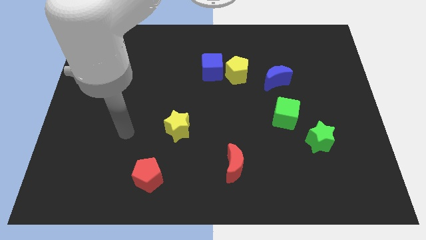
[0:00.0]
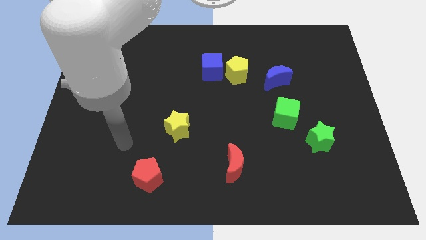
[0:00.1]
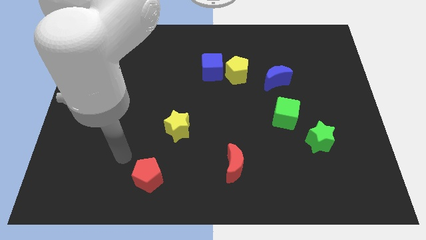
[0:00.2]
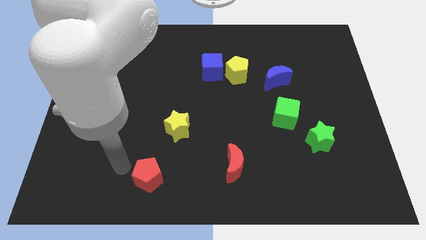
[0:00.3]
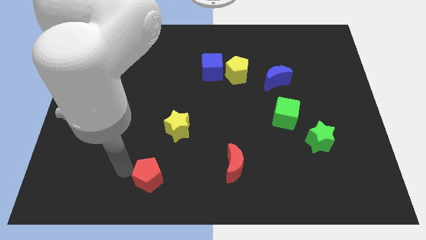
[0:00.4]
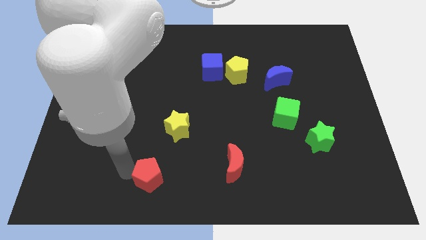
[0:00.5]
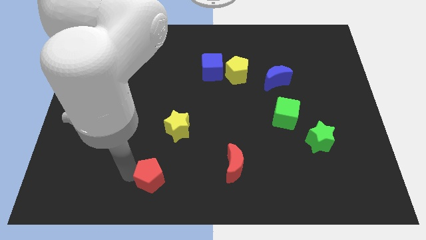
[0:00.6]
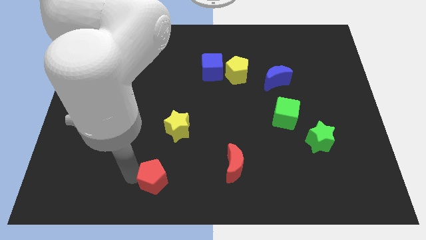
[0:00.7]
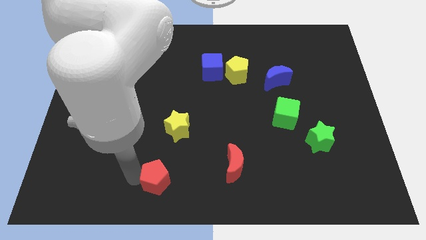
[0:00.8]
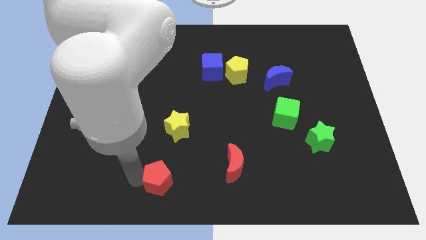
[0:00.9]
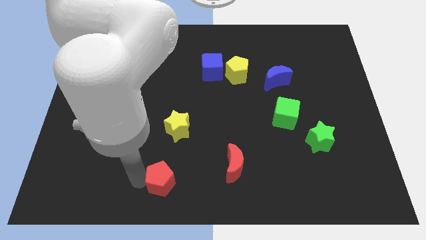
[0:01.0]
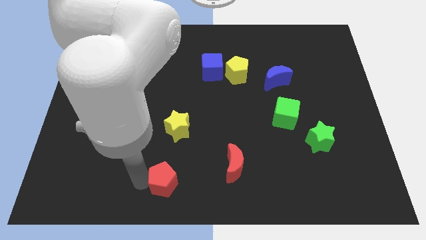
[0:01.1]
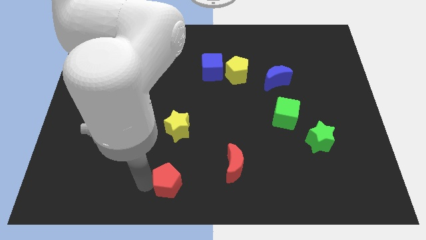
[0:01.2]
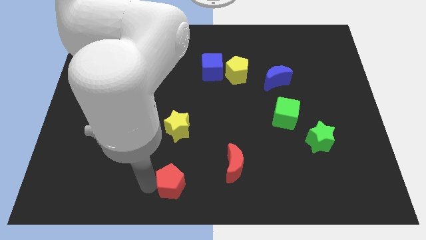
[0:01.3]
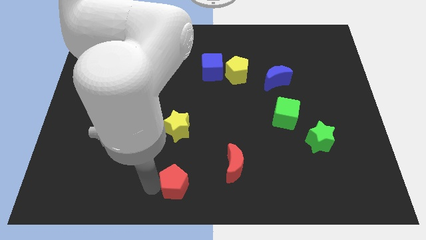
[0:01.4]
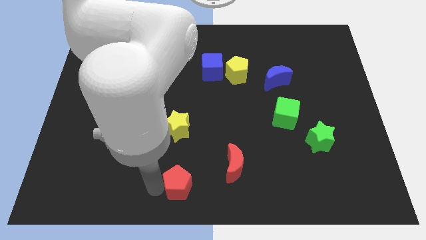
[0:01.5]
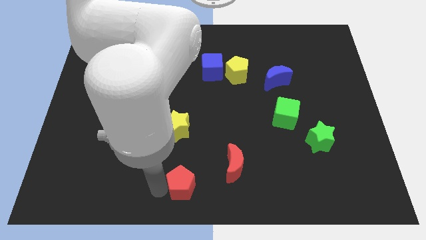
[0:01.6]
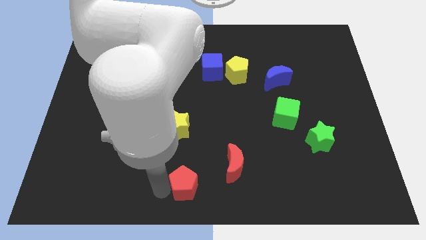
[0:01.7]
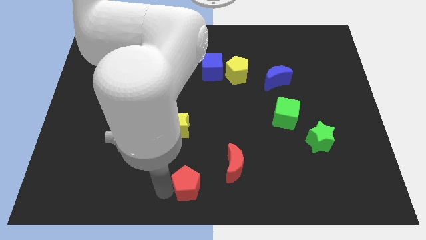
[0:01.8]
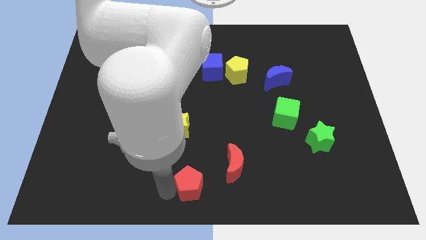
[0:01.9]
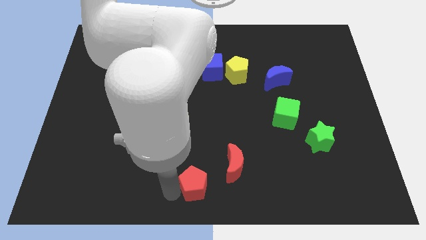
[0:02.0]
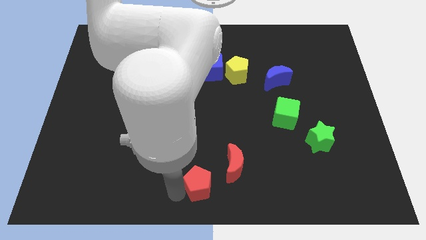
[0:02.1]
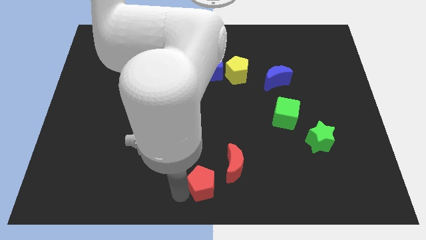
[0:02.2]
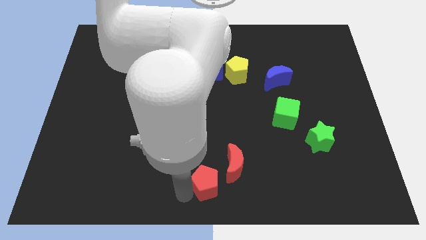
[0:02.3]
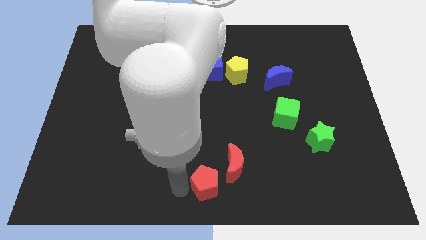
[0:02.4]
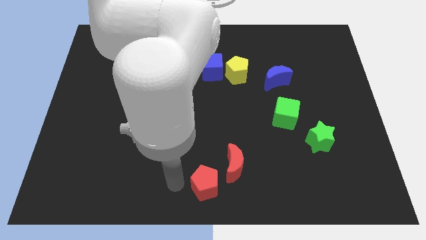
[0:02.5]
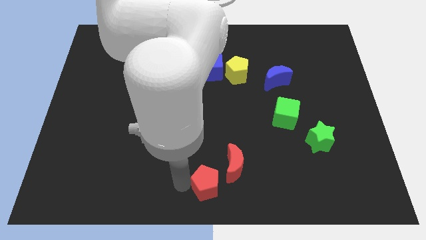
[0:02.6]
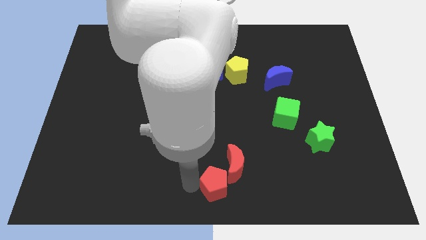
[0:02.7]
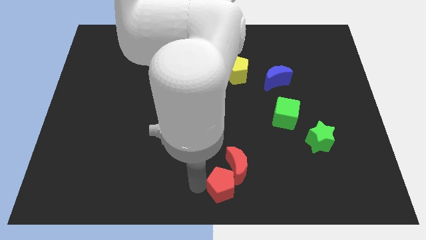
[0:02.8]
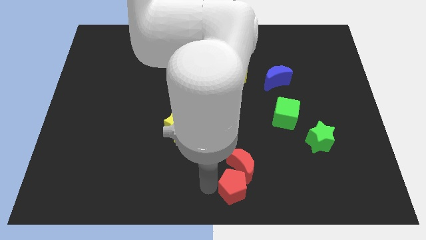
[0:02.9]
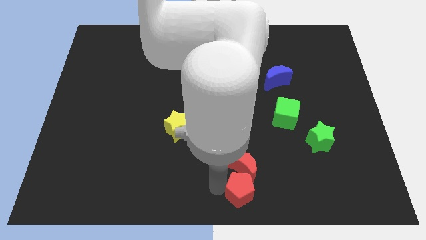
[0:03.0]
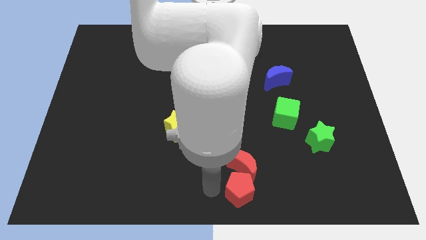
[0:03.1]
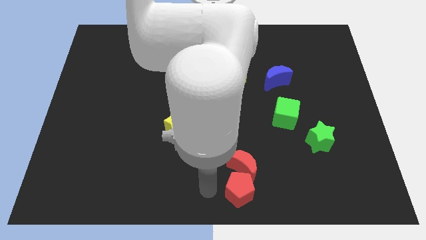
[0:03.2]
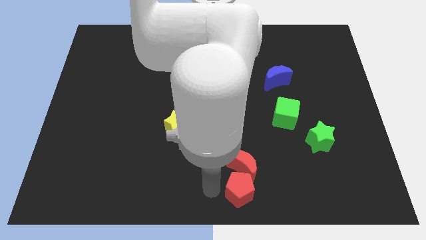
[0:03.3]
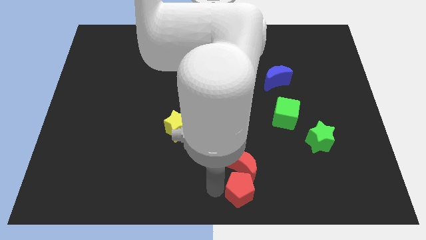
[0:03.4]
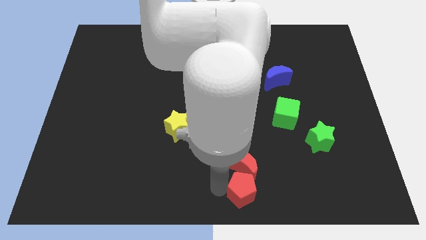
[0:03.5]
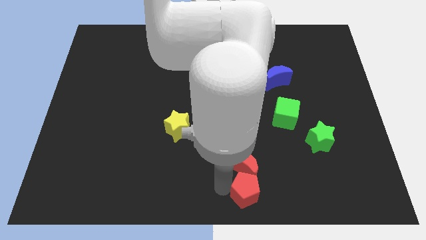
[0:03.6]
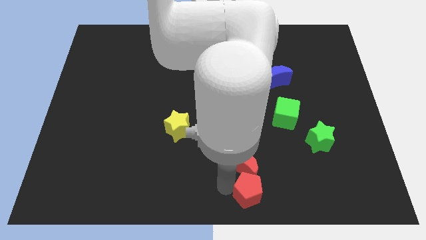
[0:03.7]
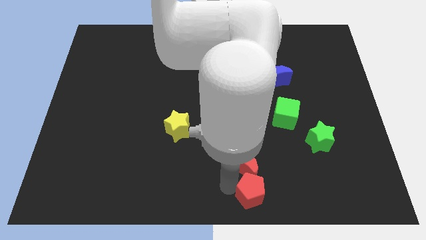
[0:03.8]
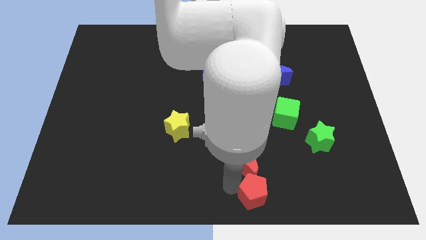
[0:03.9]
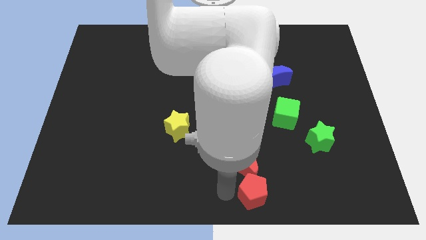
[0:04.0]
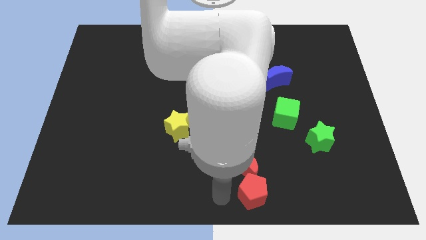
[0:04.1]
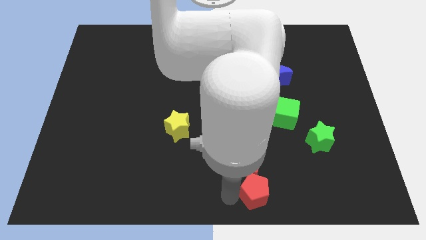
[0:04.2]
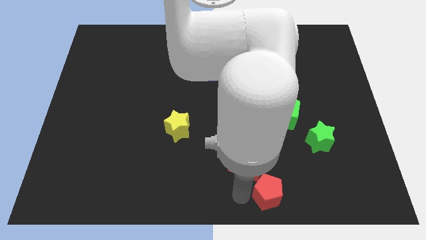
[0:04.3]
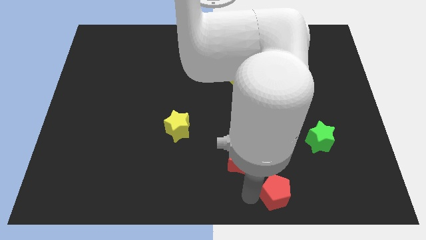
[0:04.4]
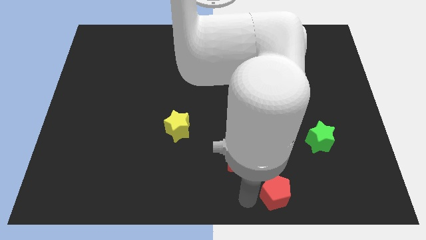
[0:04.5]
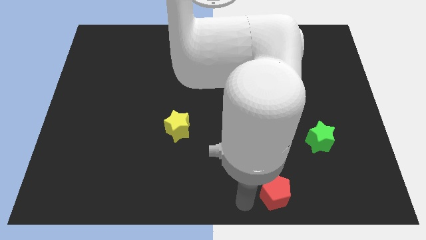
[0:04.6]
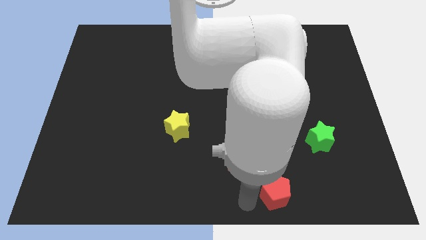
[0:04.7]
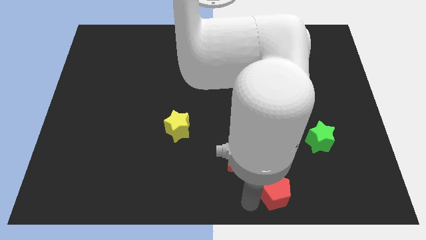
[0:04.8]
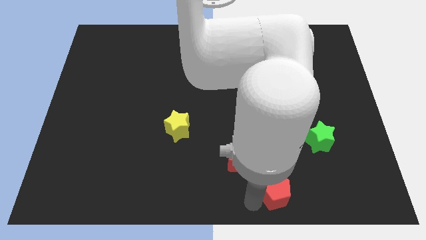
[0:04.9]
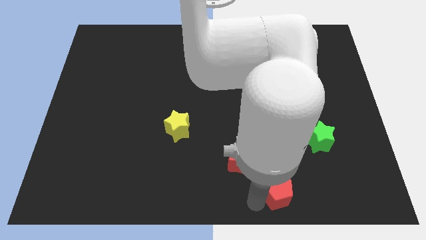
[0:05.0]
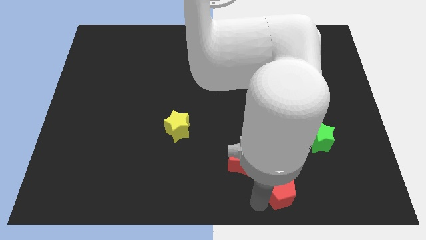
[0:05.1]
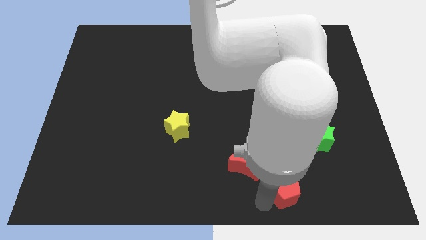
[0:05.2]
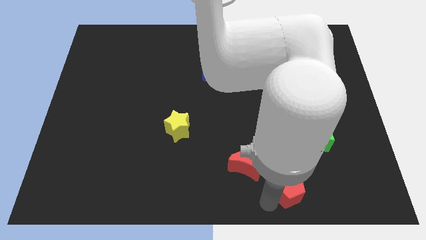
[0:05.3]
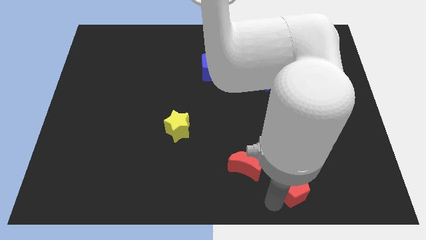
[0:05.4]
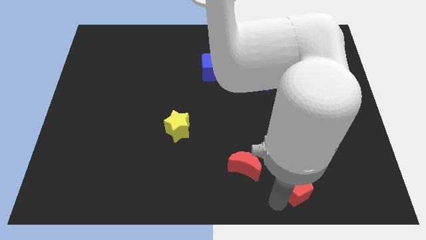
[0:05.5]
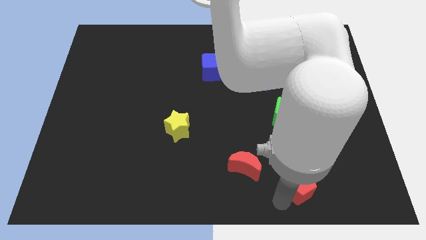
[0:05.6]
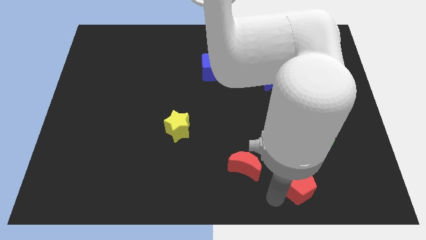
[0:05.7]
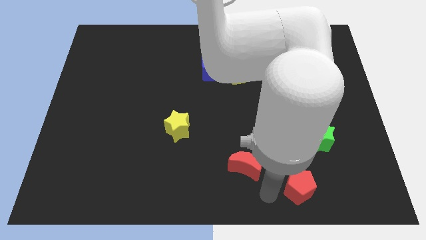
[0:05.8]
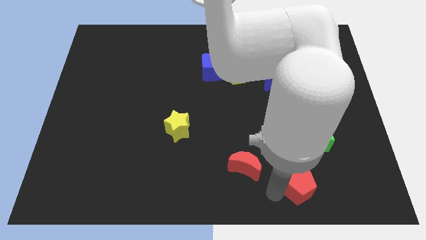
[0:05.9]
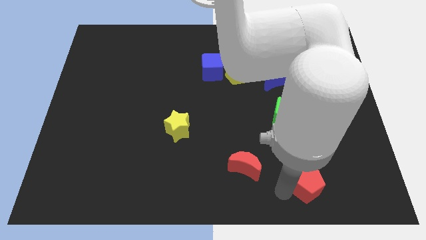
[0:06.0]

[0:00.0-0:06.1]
move the red pentagon below the green star

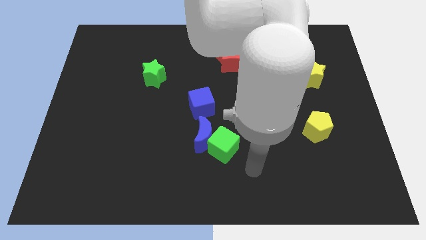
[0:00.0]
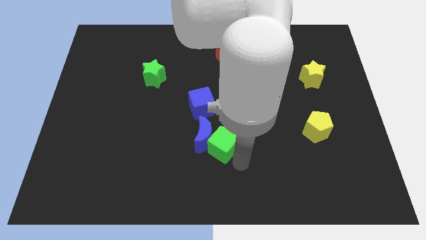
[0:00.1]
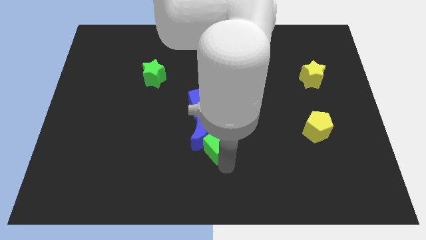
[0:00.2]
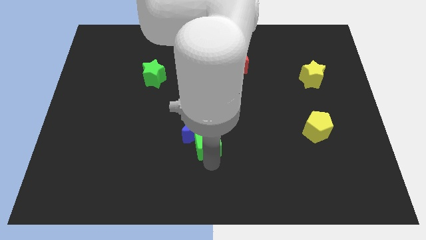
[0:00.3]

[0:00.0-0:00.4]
put the blue cube diagonally up and to the right of the blue moon

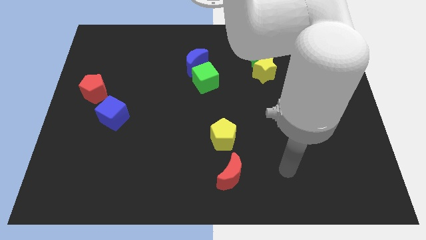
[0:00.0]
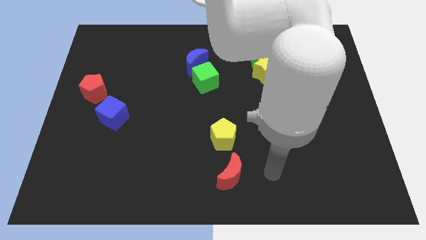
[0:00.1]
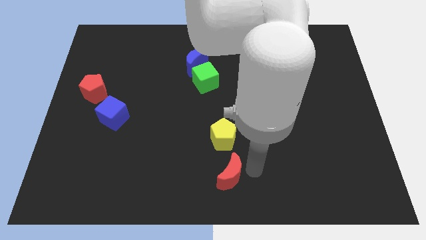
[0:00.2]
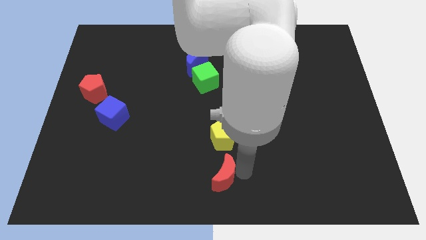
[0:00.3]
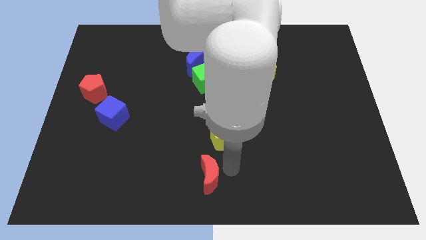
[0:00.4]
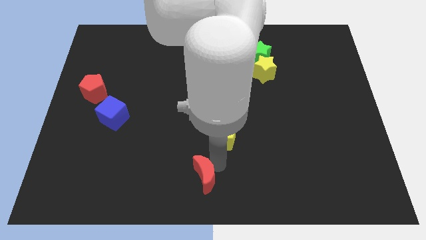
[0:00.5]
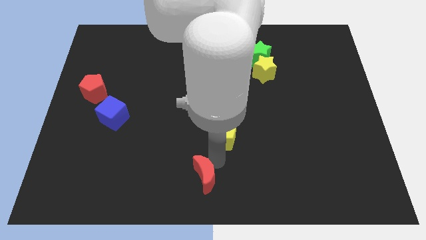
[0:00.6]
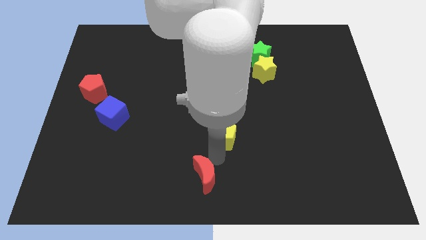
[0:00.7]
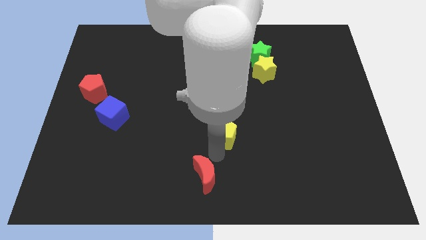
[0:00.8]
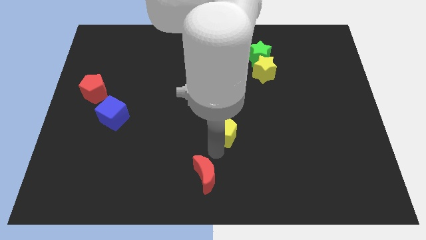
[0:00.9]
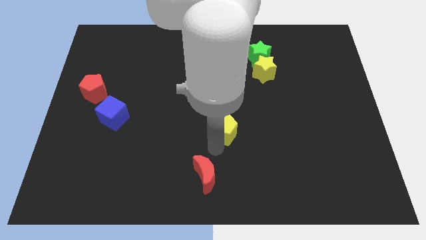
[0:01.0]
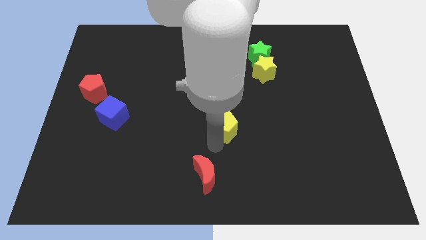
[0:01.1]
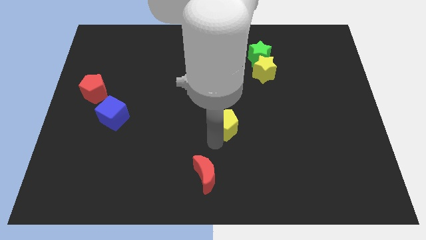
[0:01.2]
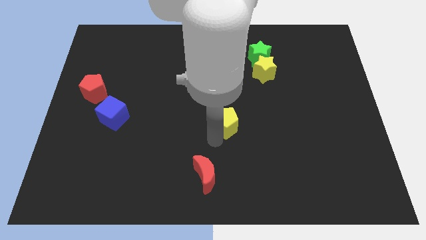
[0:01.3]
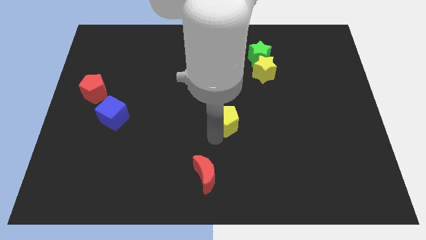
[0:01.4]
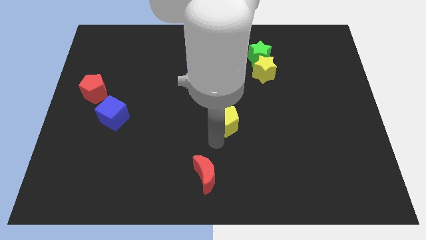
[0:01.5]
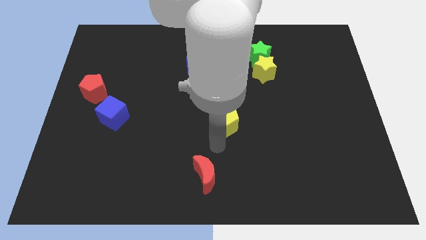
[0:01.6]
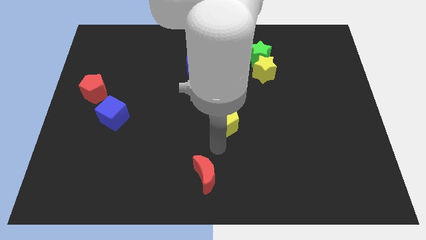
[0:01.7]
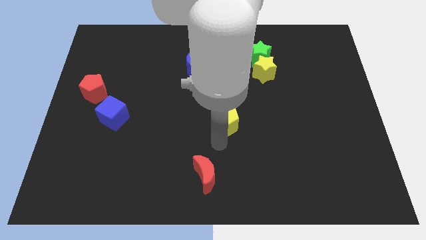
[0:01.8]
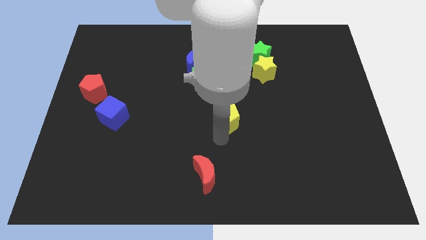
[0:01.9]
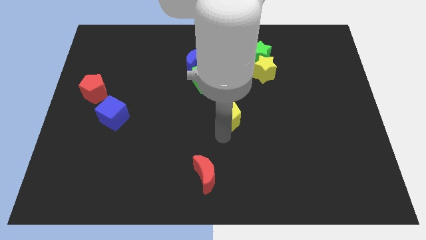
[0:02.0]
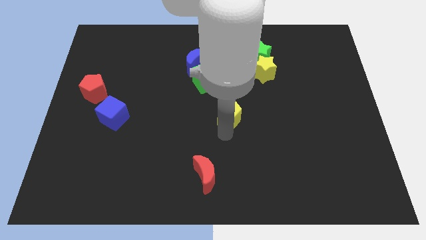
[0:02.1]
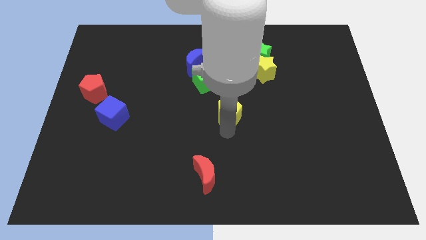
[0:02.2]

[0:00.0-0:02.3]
slide the yellow pentagon diagonally down and to the right of the green cube
